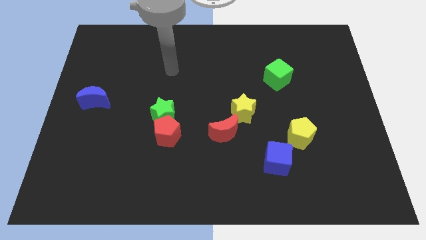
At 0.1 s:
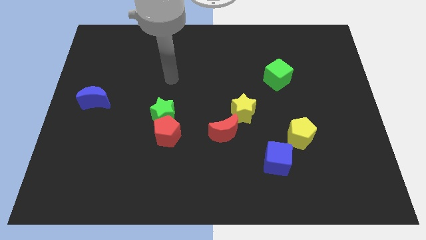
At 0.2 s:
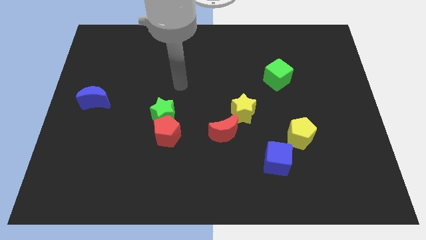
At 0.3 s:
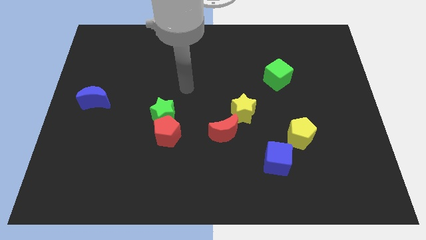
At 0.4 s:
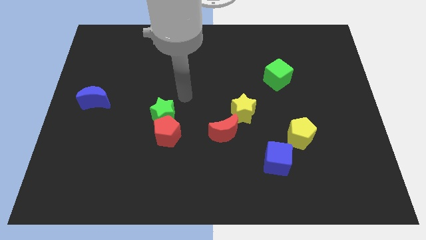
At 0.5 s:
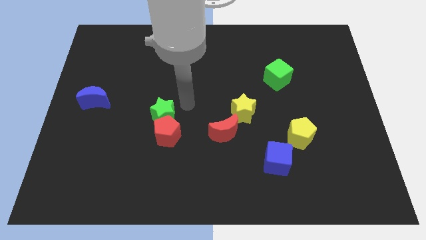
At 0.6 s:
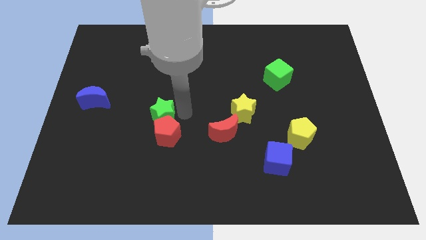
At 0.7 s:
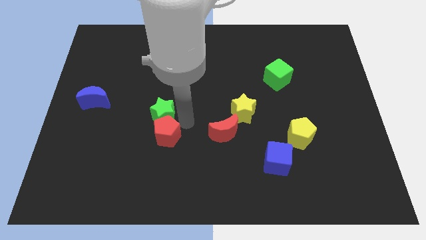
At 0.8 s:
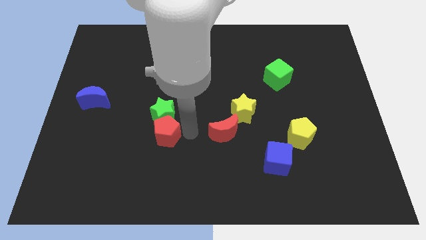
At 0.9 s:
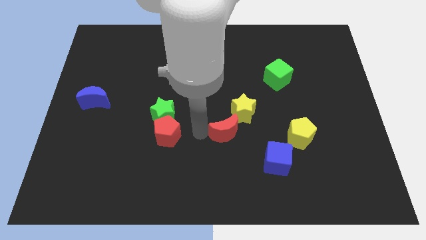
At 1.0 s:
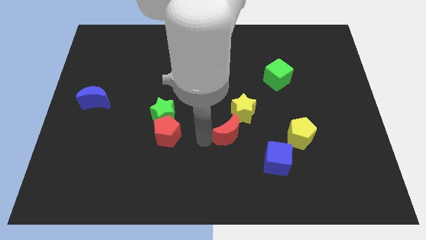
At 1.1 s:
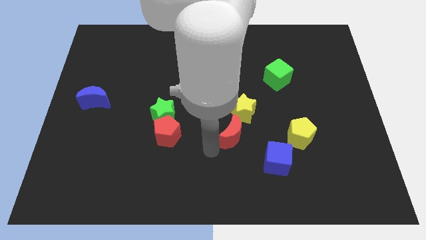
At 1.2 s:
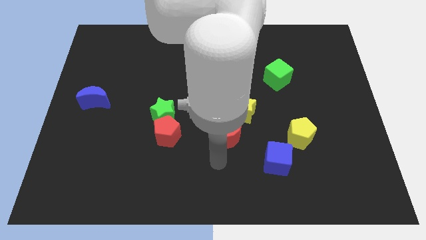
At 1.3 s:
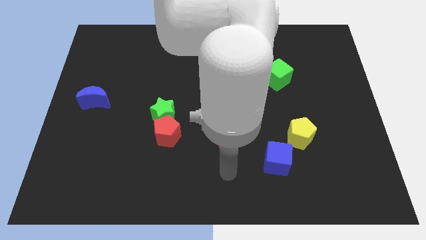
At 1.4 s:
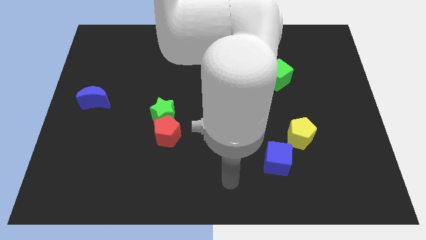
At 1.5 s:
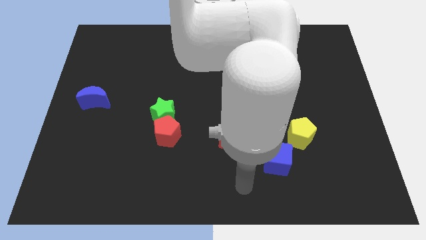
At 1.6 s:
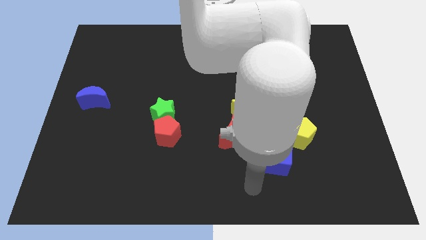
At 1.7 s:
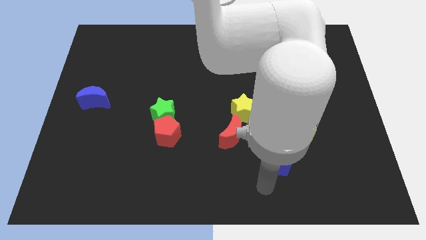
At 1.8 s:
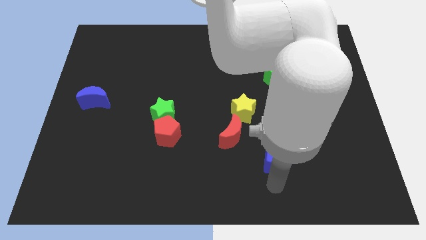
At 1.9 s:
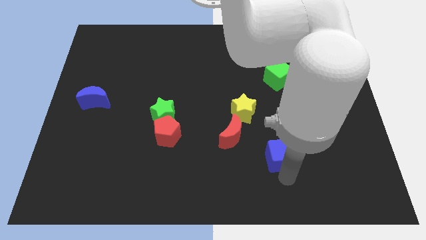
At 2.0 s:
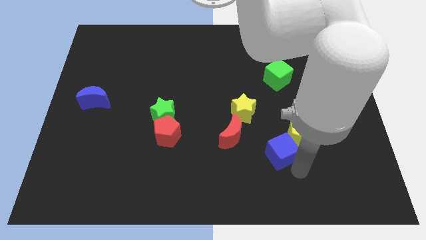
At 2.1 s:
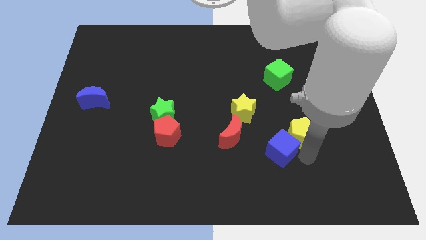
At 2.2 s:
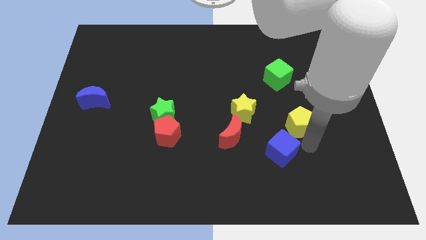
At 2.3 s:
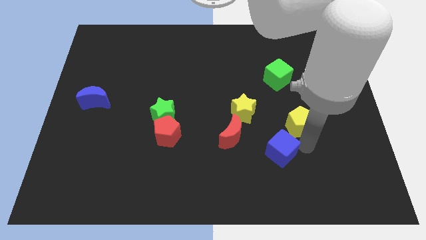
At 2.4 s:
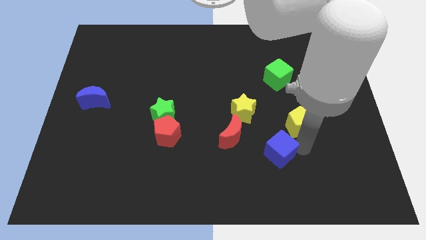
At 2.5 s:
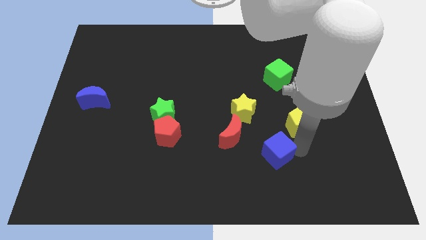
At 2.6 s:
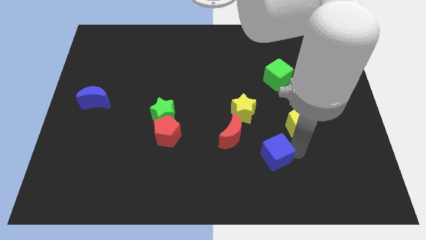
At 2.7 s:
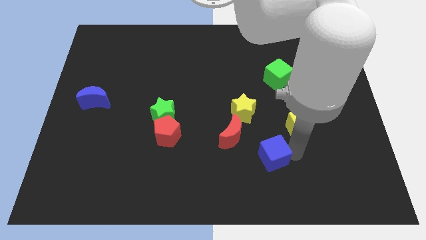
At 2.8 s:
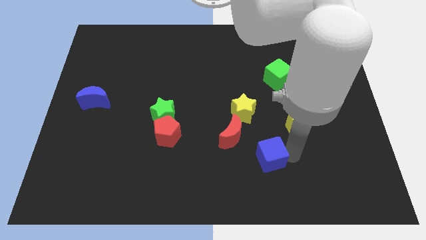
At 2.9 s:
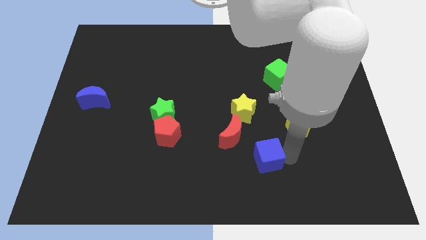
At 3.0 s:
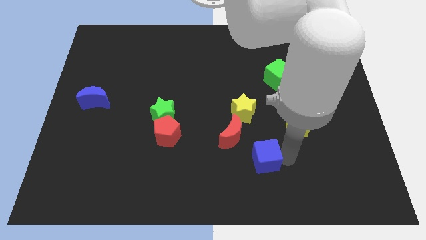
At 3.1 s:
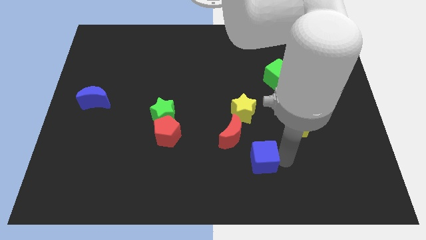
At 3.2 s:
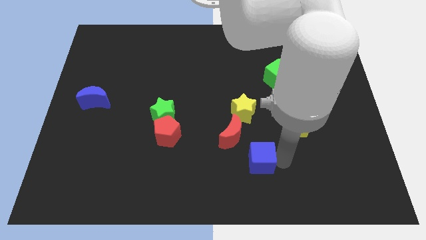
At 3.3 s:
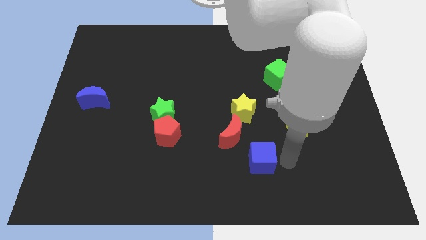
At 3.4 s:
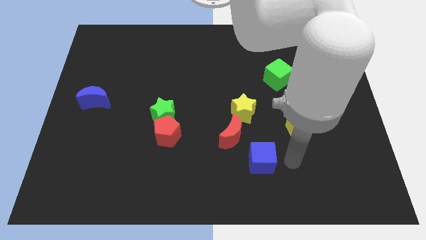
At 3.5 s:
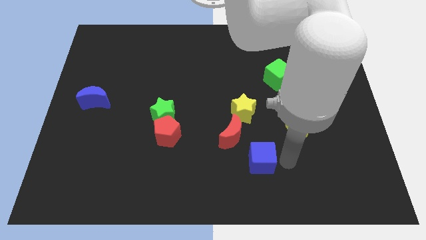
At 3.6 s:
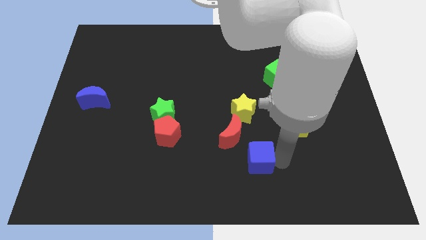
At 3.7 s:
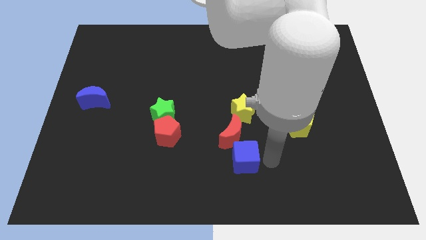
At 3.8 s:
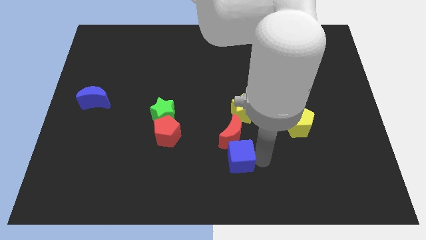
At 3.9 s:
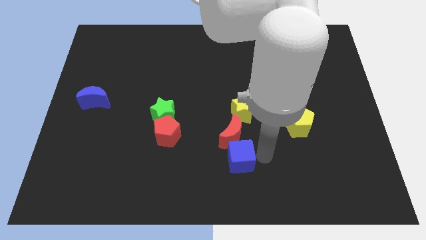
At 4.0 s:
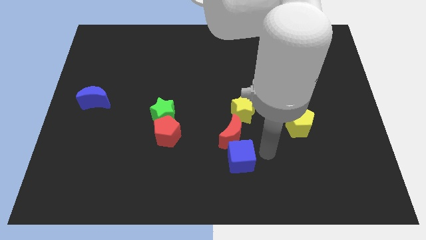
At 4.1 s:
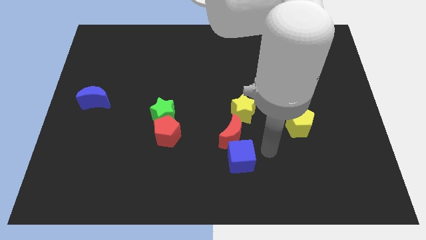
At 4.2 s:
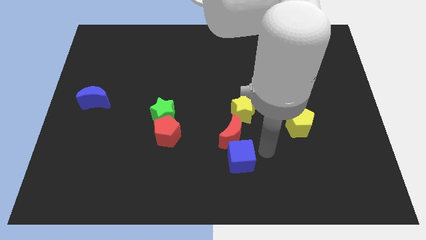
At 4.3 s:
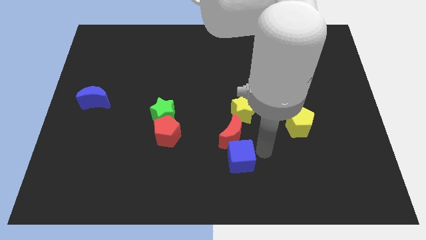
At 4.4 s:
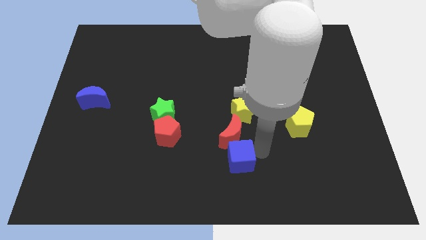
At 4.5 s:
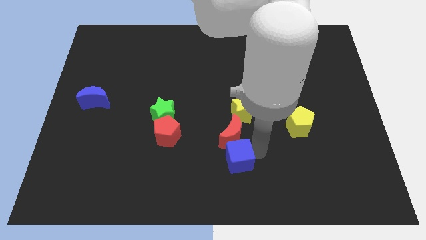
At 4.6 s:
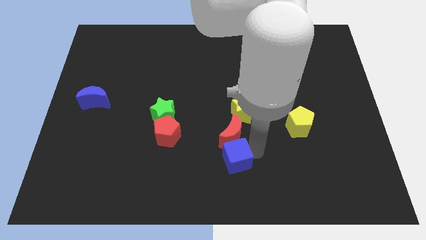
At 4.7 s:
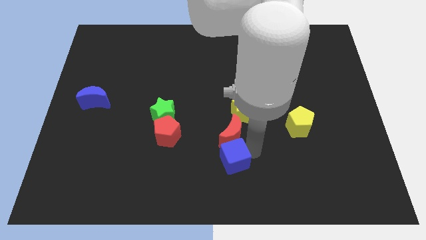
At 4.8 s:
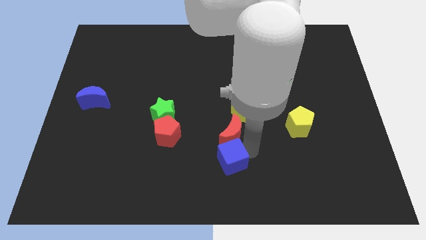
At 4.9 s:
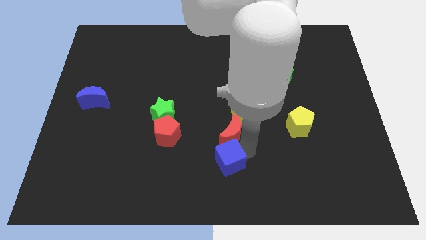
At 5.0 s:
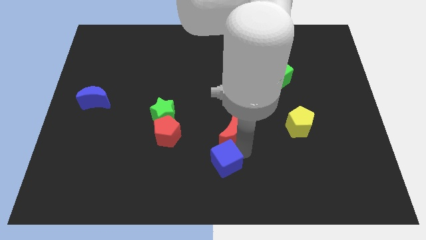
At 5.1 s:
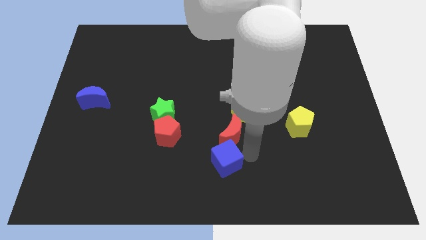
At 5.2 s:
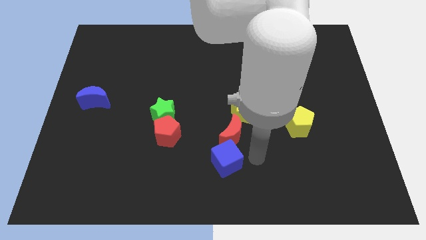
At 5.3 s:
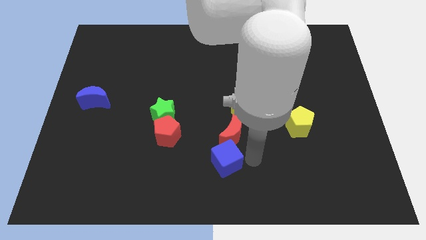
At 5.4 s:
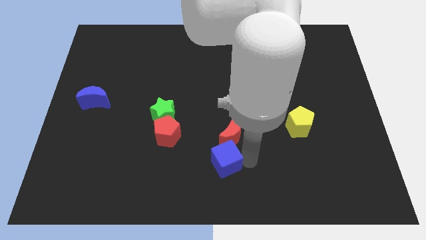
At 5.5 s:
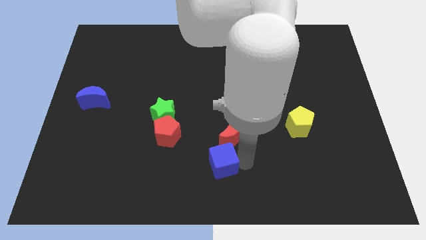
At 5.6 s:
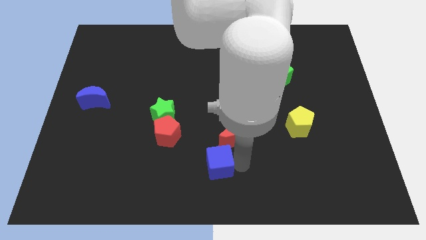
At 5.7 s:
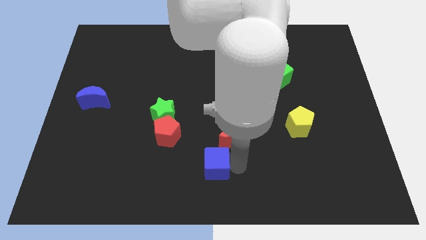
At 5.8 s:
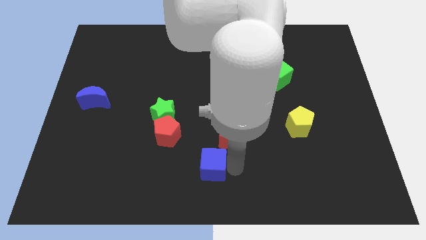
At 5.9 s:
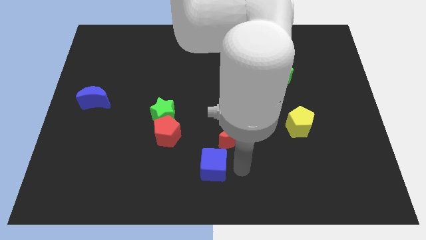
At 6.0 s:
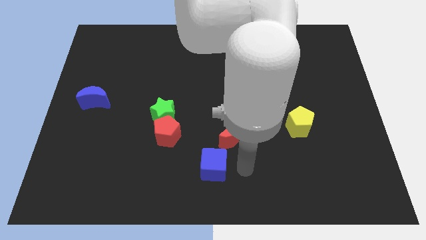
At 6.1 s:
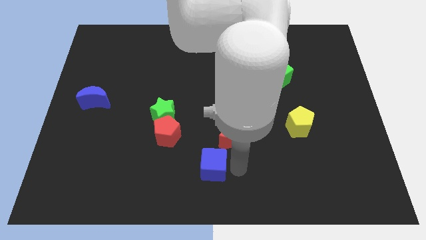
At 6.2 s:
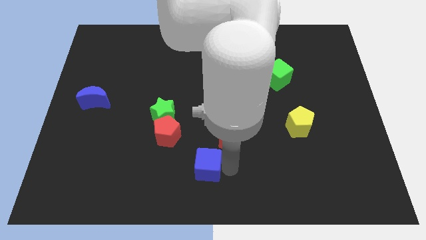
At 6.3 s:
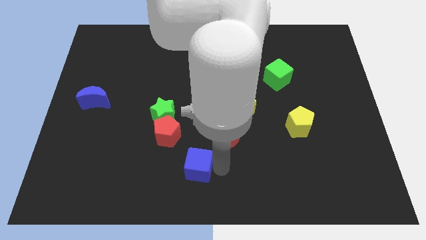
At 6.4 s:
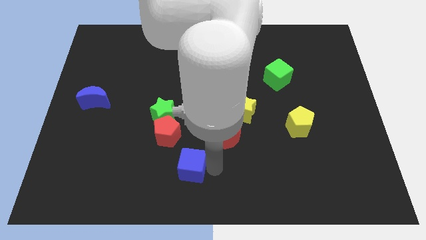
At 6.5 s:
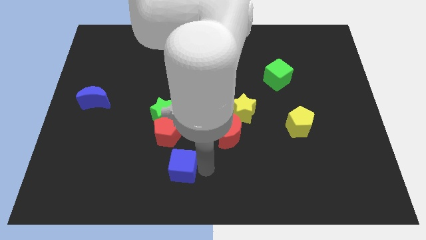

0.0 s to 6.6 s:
move the blue cube left

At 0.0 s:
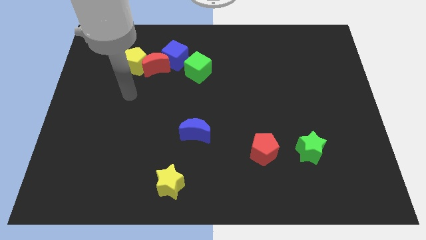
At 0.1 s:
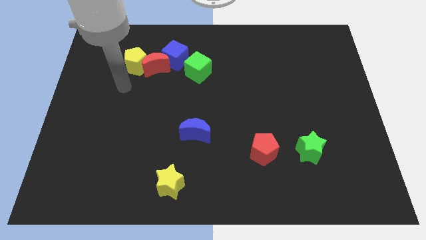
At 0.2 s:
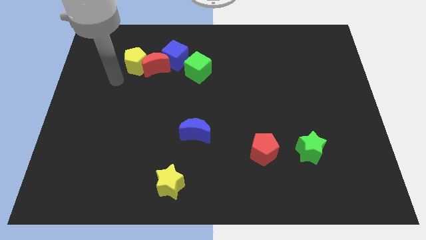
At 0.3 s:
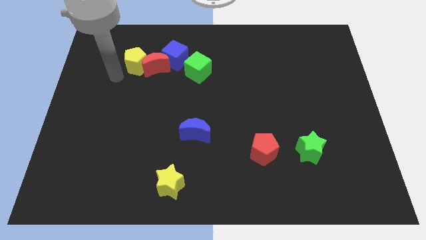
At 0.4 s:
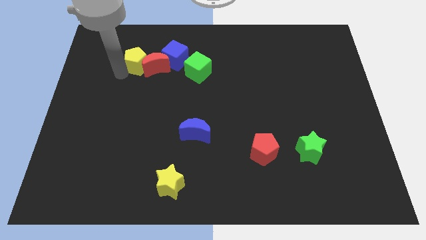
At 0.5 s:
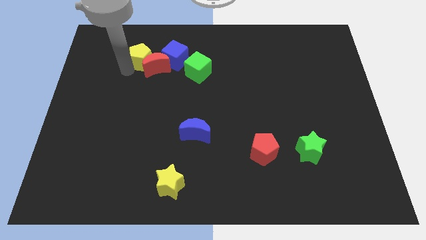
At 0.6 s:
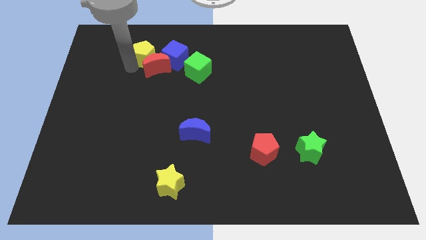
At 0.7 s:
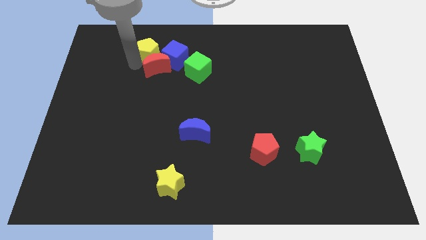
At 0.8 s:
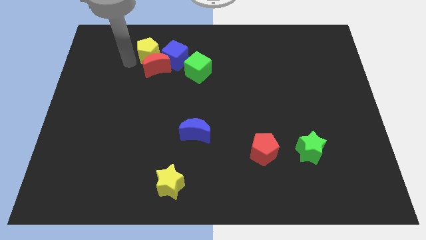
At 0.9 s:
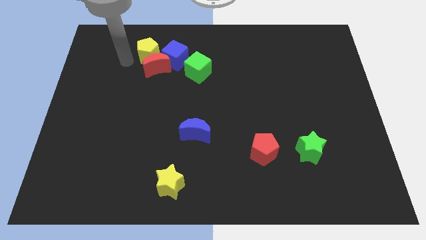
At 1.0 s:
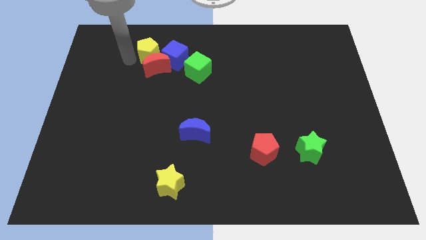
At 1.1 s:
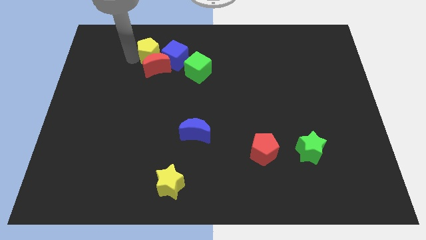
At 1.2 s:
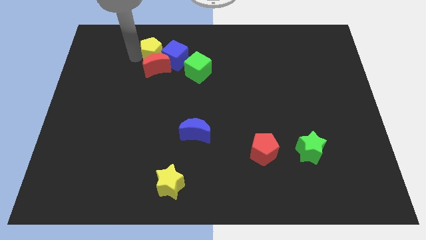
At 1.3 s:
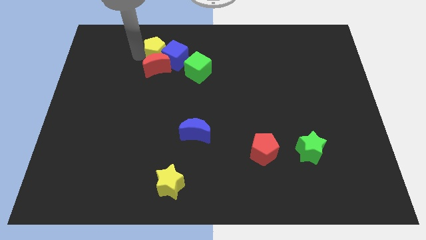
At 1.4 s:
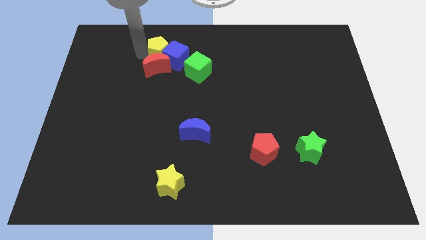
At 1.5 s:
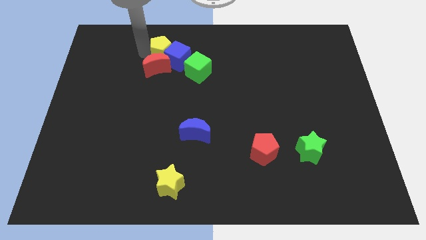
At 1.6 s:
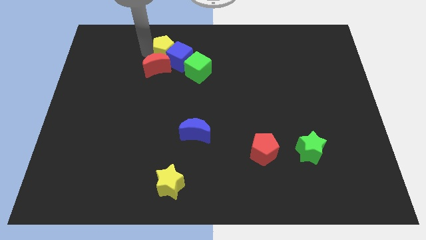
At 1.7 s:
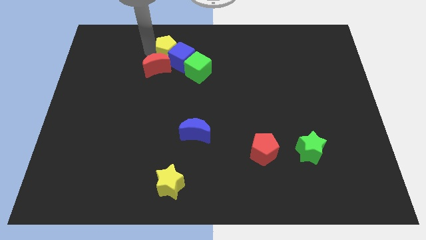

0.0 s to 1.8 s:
slide the yellow pentagon to the right a little bit
